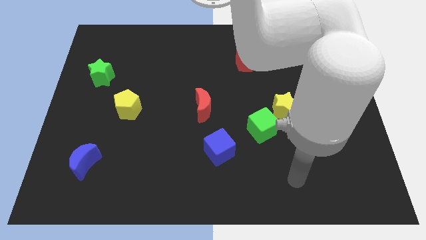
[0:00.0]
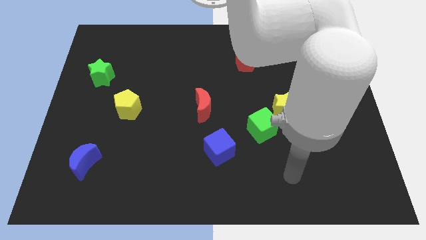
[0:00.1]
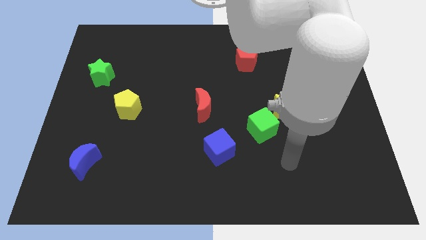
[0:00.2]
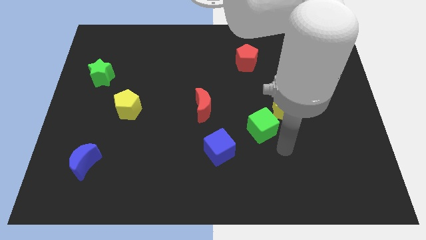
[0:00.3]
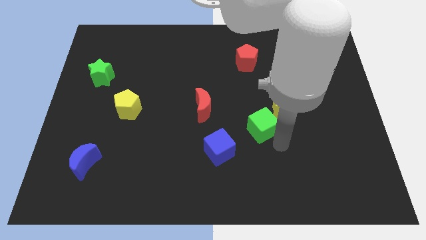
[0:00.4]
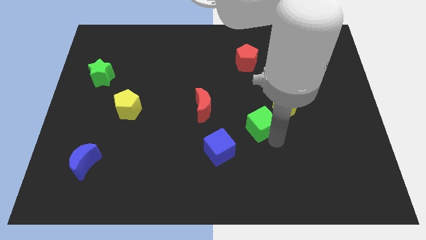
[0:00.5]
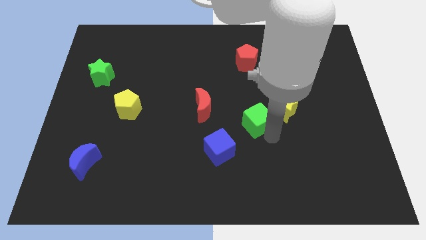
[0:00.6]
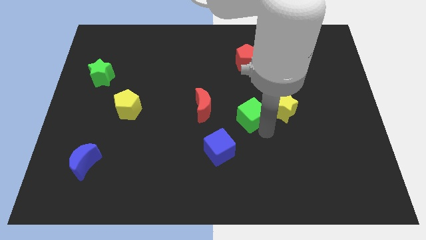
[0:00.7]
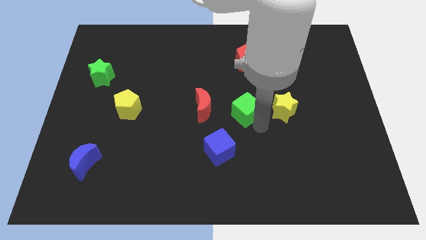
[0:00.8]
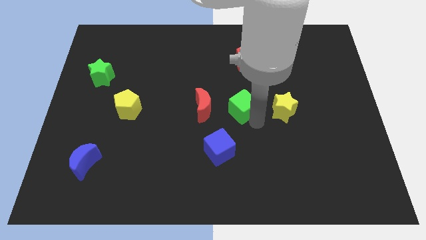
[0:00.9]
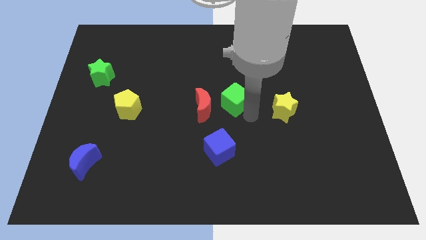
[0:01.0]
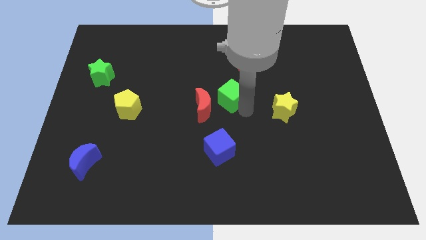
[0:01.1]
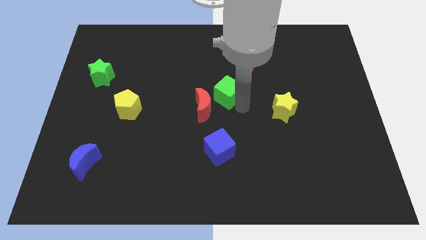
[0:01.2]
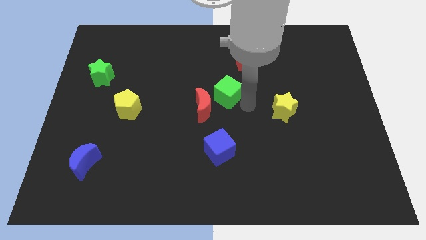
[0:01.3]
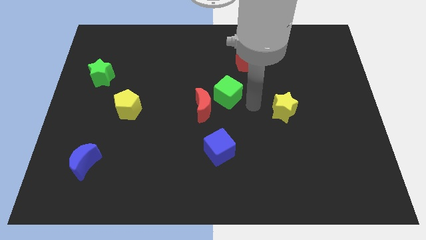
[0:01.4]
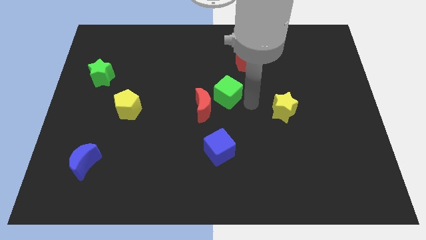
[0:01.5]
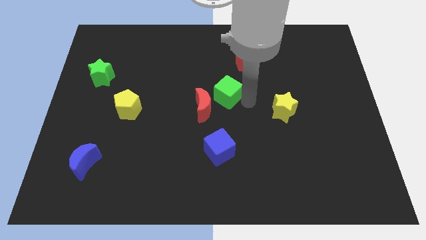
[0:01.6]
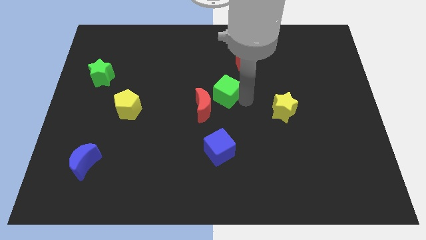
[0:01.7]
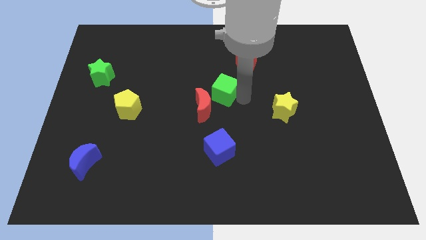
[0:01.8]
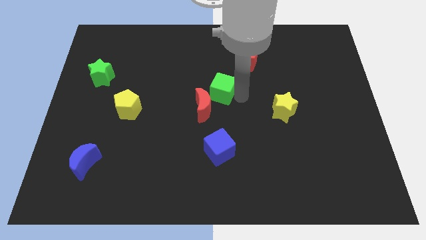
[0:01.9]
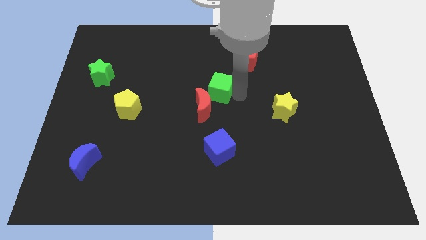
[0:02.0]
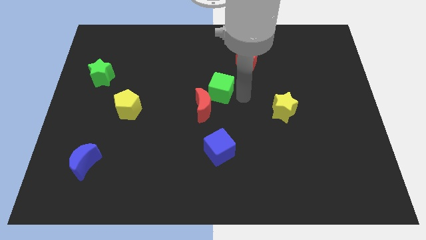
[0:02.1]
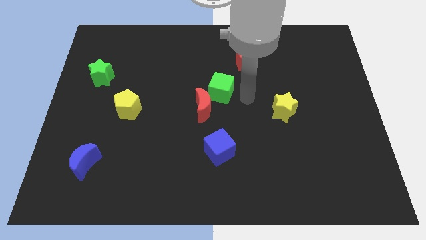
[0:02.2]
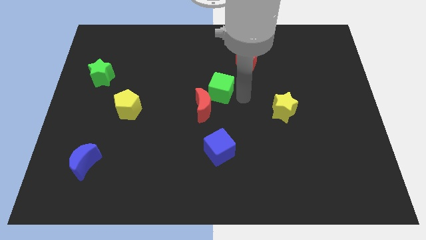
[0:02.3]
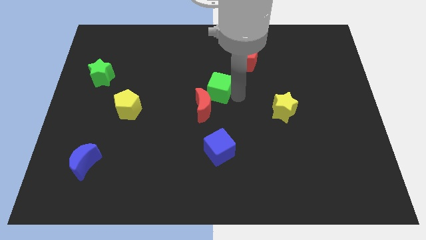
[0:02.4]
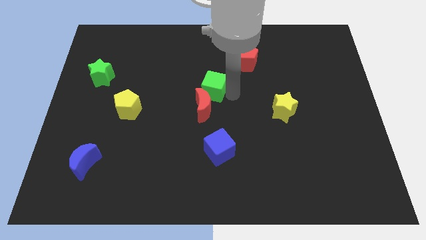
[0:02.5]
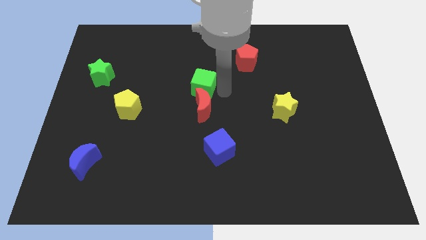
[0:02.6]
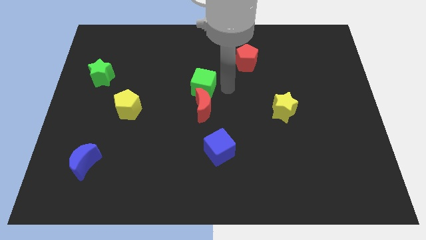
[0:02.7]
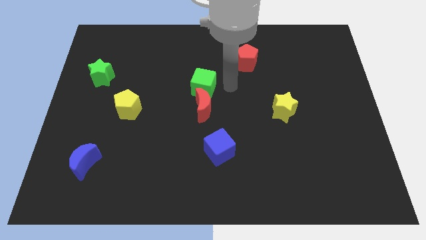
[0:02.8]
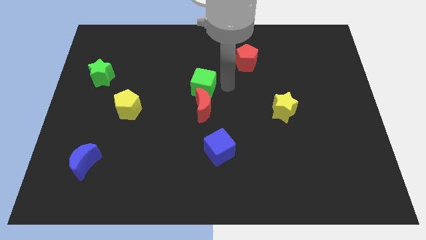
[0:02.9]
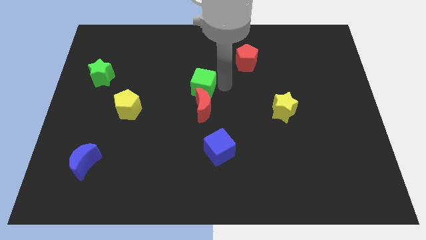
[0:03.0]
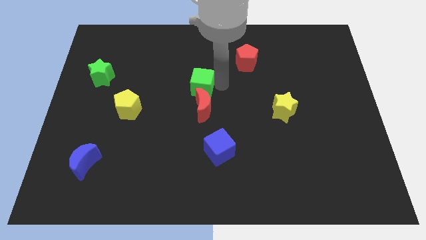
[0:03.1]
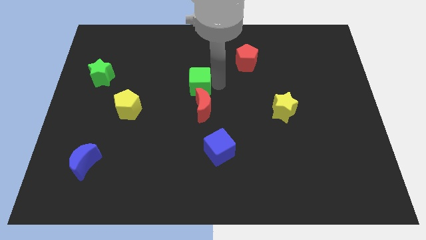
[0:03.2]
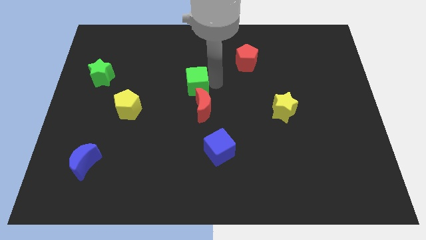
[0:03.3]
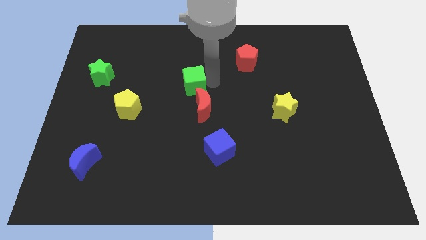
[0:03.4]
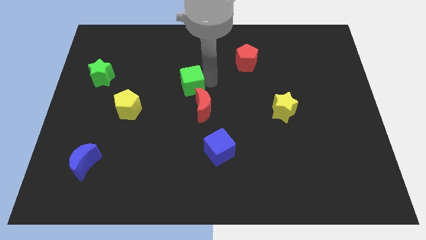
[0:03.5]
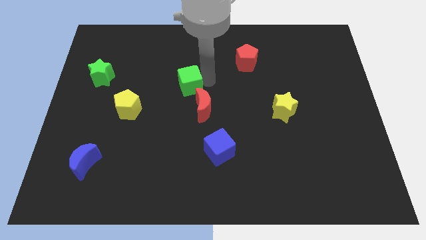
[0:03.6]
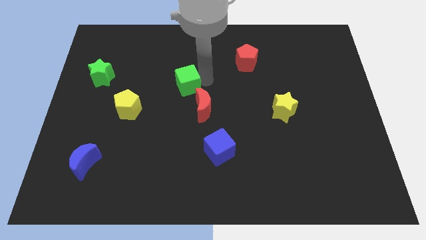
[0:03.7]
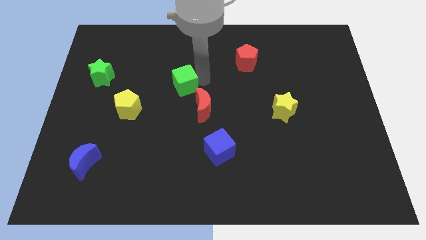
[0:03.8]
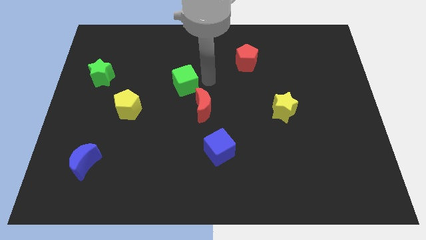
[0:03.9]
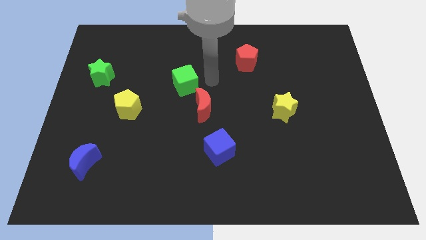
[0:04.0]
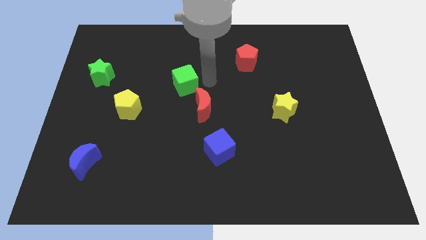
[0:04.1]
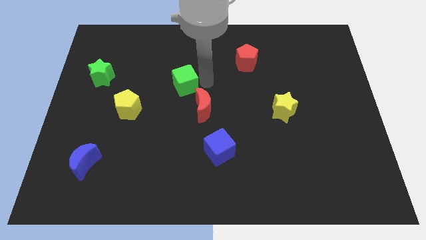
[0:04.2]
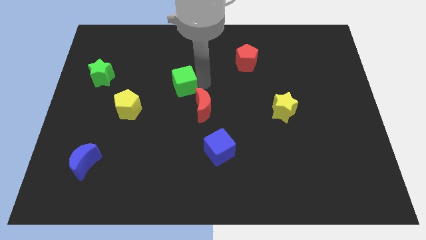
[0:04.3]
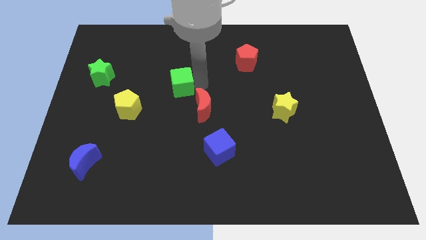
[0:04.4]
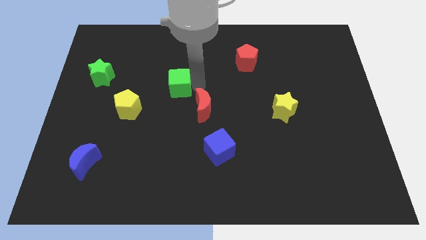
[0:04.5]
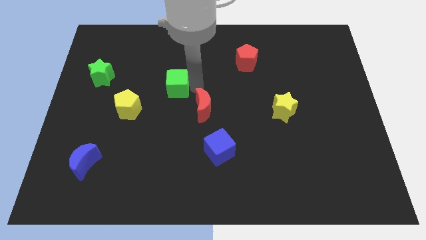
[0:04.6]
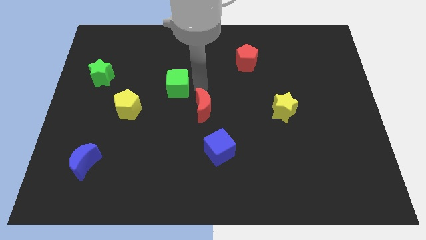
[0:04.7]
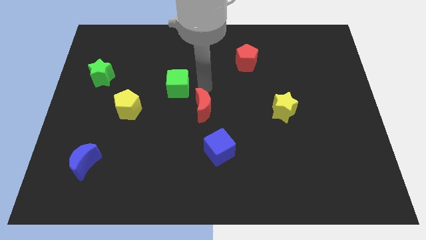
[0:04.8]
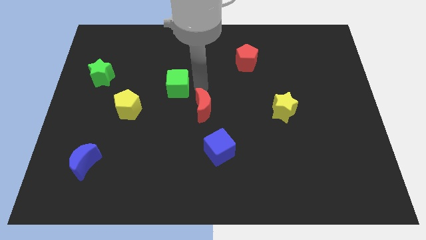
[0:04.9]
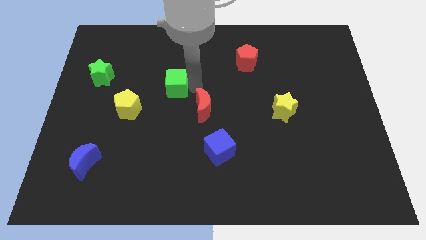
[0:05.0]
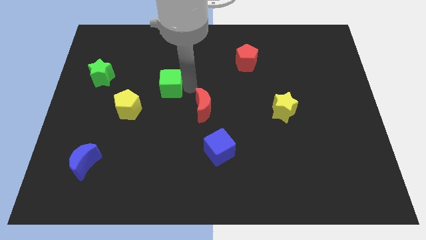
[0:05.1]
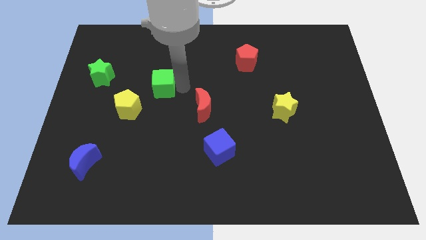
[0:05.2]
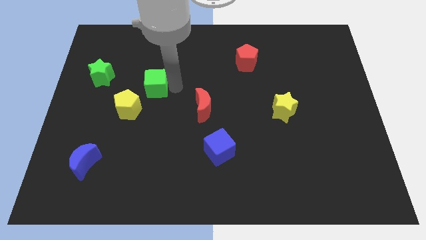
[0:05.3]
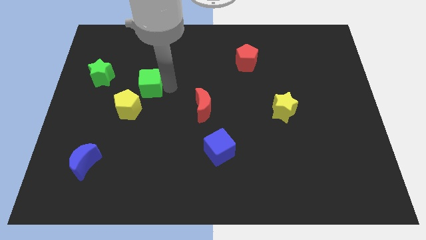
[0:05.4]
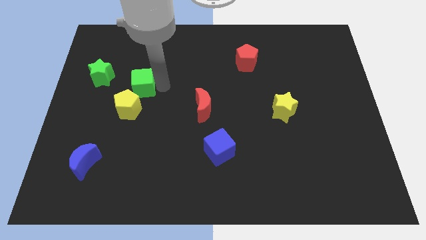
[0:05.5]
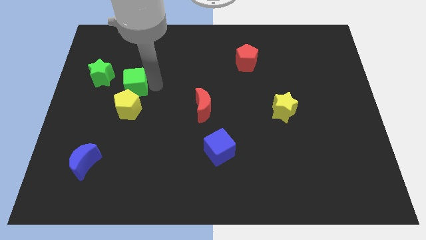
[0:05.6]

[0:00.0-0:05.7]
put the green cube to the bottom right of the green star

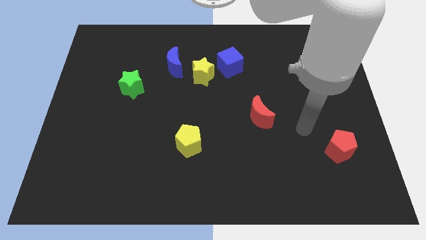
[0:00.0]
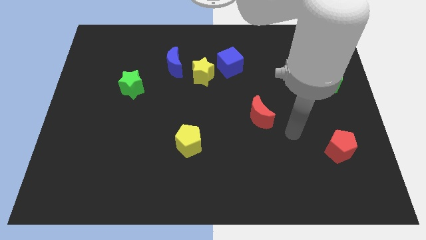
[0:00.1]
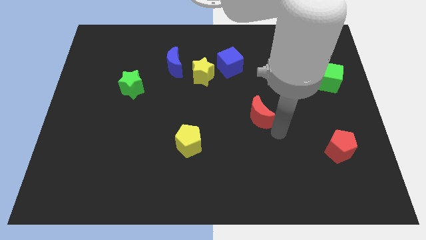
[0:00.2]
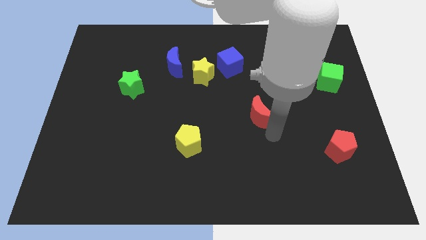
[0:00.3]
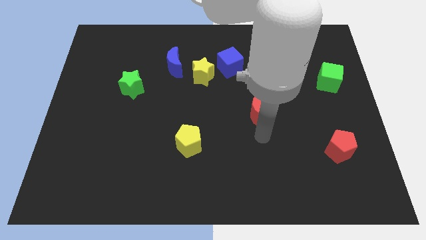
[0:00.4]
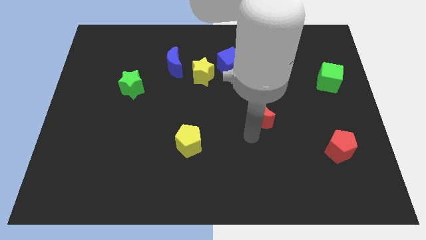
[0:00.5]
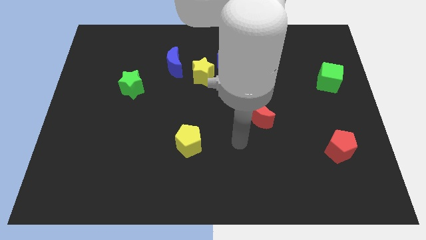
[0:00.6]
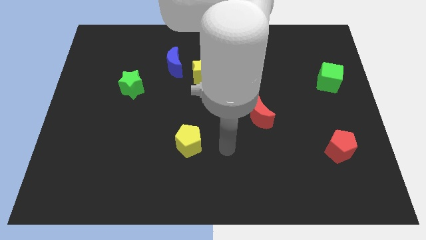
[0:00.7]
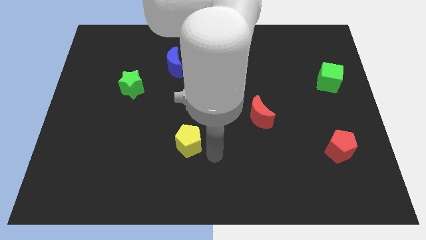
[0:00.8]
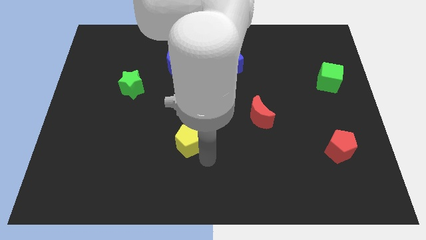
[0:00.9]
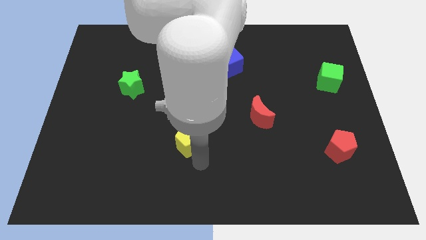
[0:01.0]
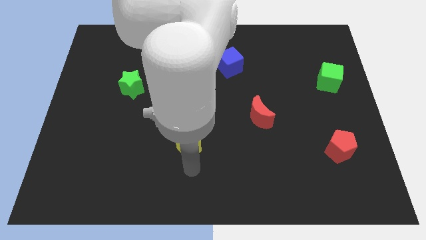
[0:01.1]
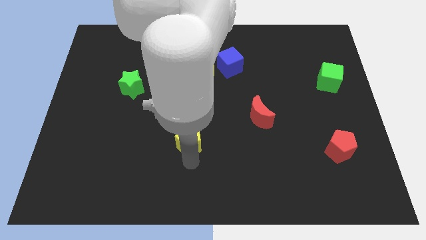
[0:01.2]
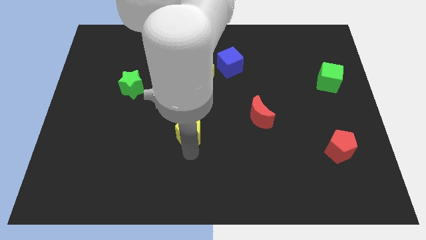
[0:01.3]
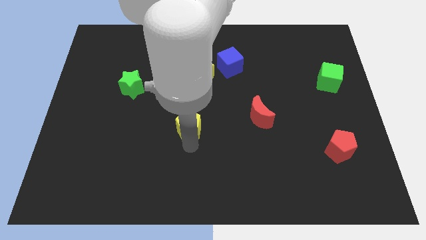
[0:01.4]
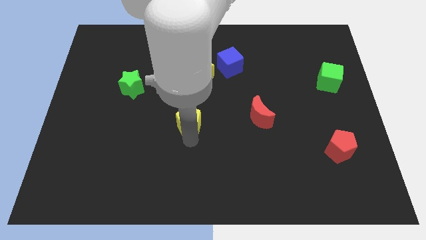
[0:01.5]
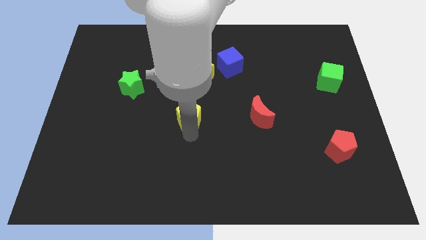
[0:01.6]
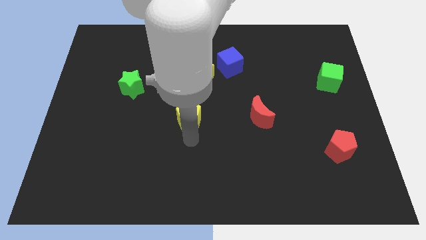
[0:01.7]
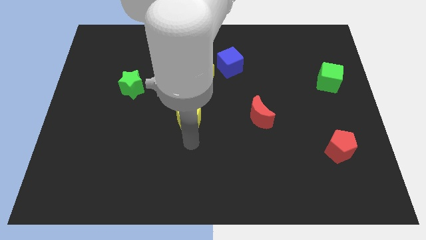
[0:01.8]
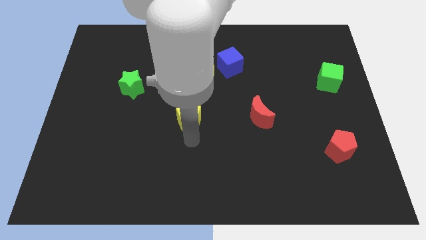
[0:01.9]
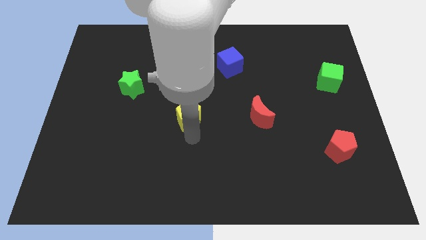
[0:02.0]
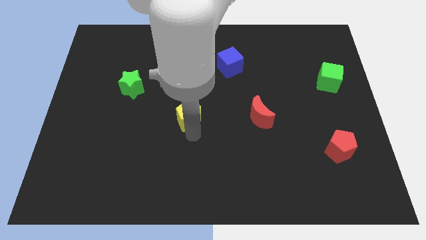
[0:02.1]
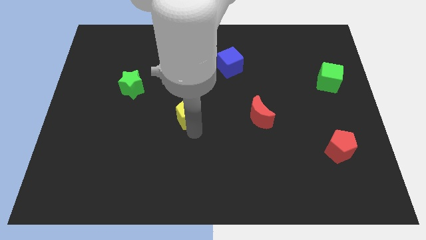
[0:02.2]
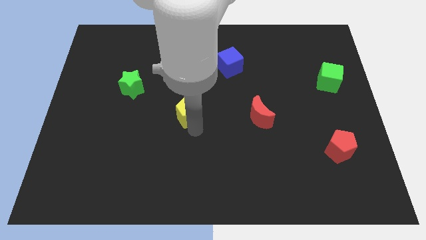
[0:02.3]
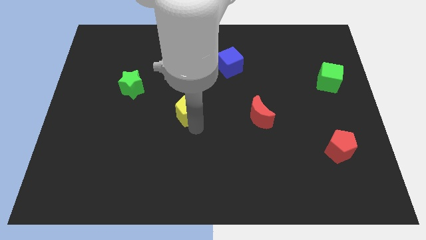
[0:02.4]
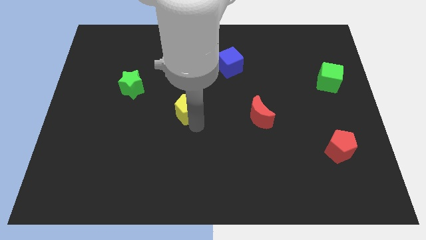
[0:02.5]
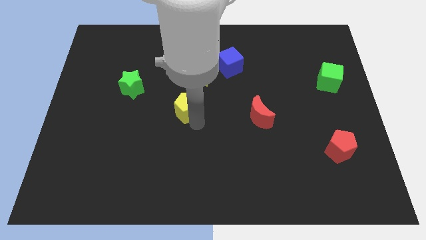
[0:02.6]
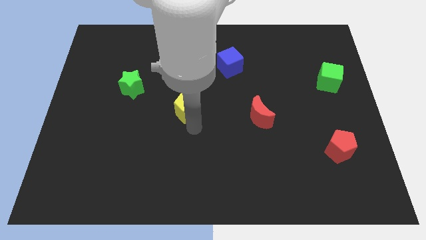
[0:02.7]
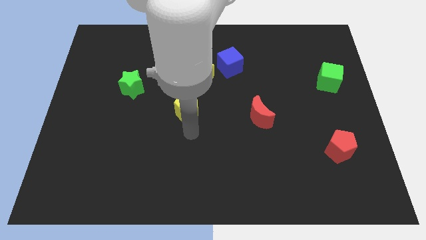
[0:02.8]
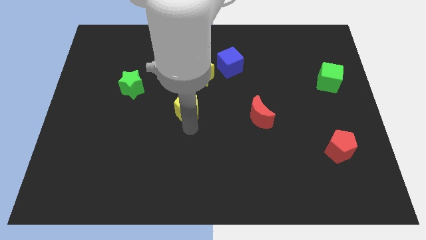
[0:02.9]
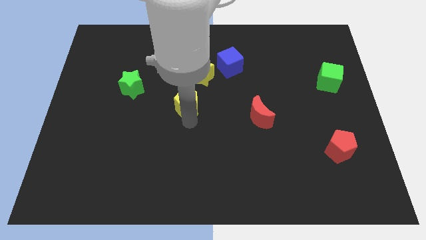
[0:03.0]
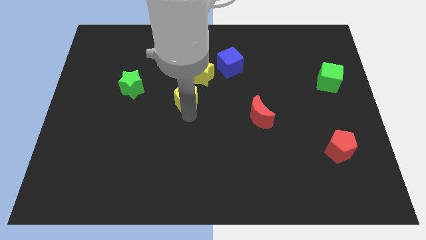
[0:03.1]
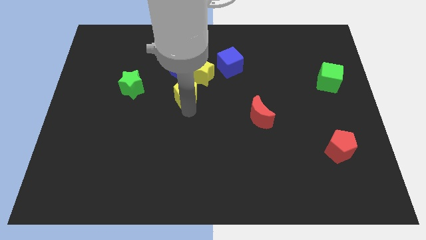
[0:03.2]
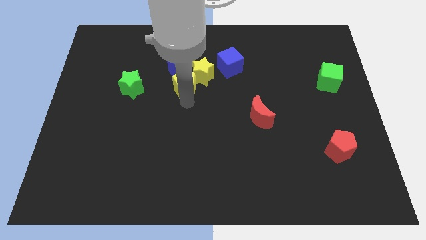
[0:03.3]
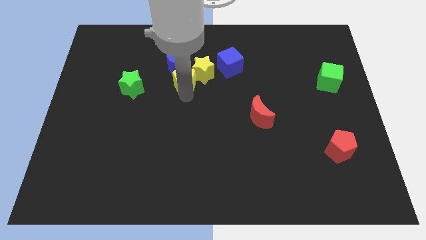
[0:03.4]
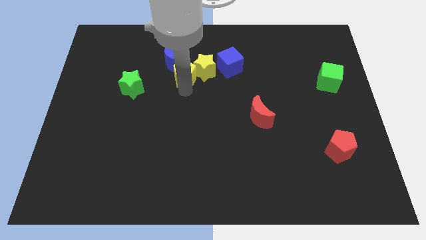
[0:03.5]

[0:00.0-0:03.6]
slide the yellow pentagon to the left of the blue cube
